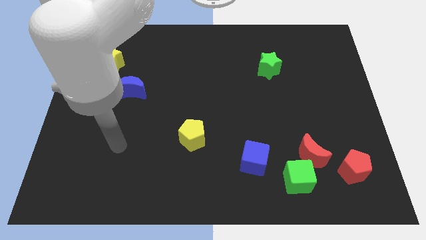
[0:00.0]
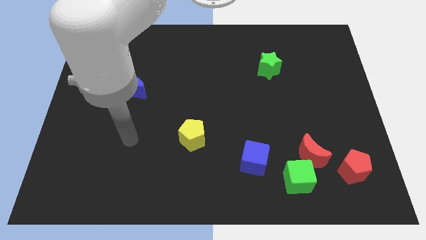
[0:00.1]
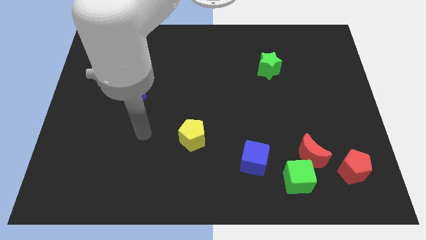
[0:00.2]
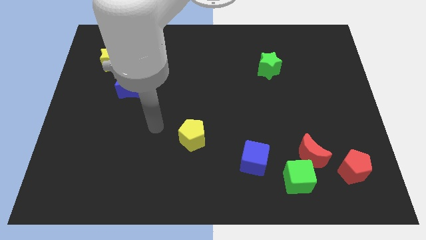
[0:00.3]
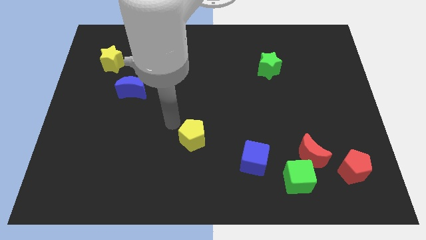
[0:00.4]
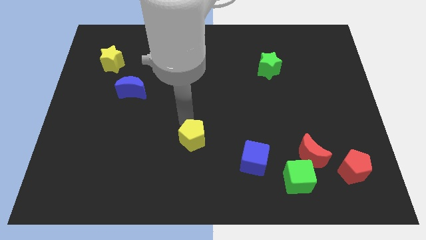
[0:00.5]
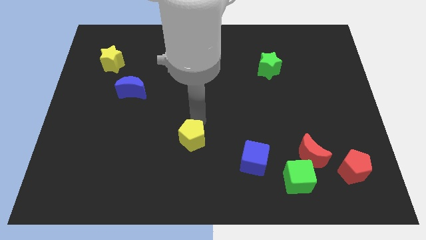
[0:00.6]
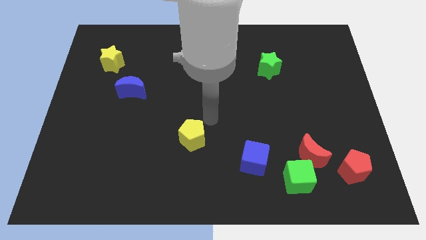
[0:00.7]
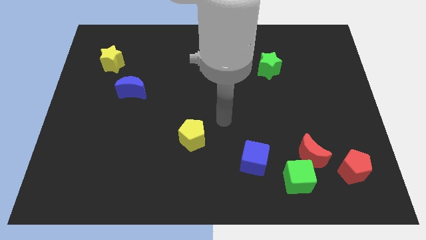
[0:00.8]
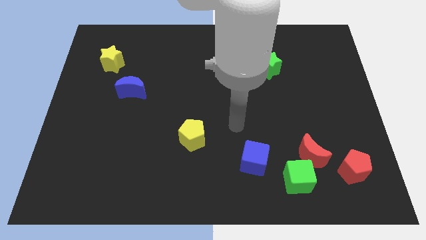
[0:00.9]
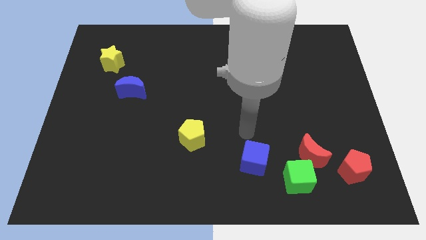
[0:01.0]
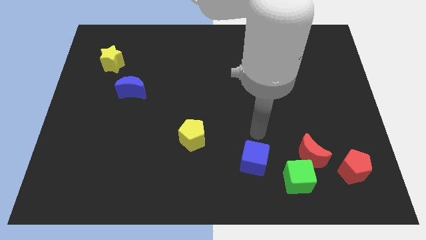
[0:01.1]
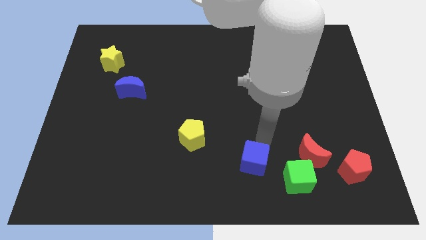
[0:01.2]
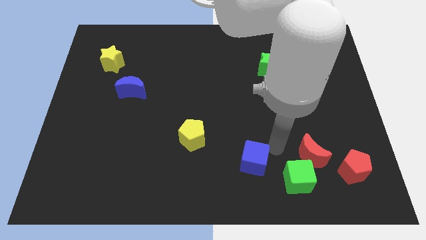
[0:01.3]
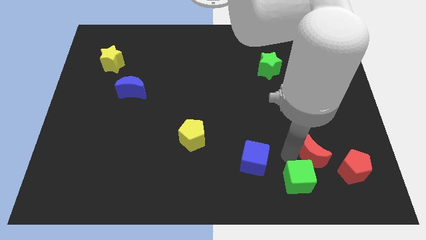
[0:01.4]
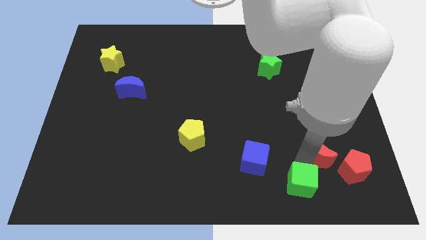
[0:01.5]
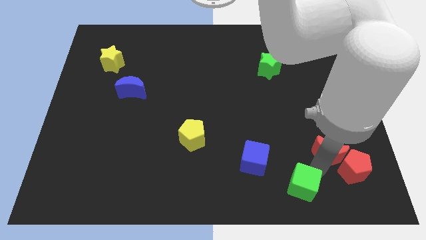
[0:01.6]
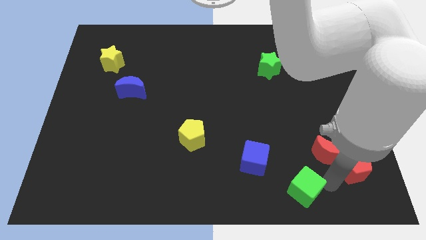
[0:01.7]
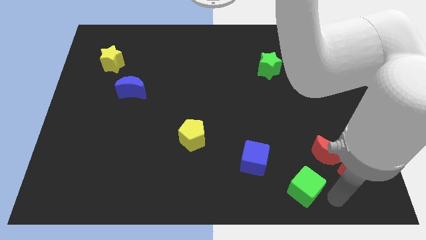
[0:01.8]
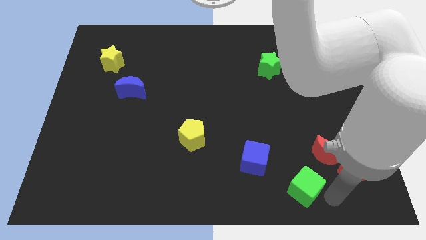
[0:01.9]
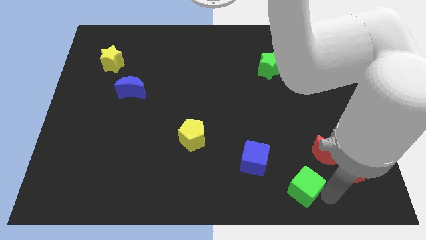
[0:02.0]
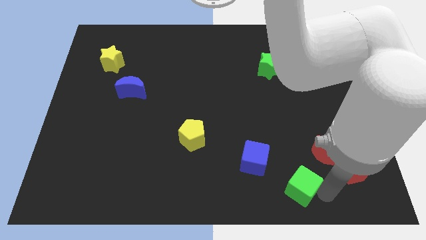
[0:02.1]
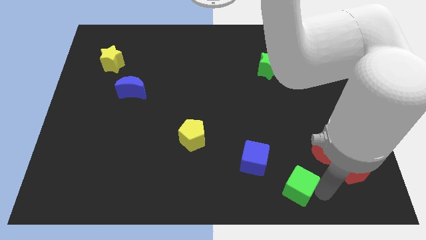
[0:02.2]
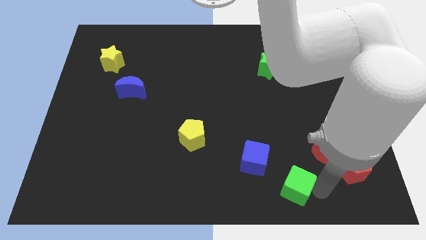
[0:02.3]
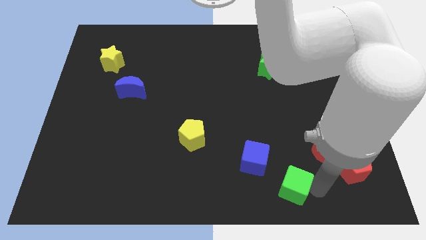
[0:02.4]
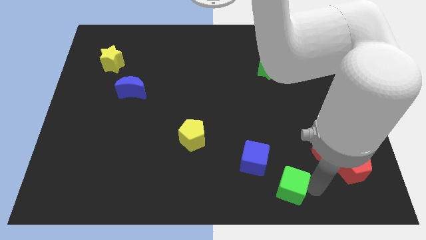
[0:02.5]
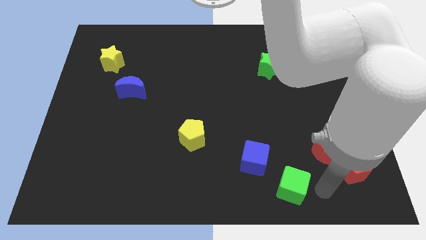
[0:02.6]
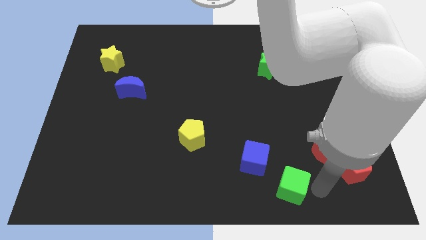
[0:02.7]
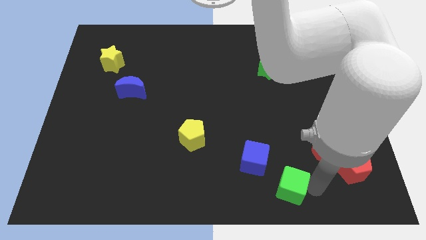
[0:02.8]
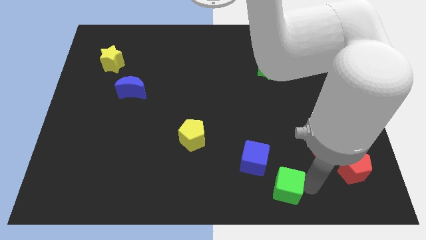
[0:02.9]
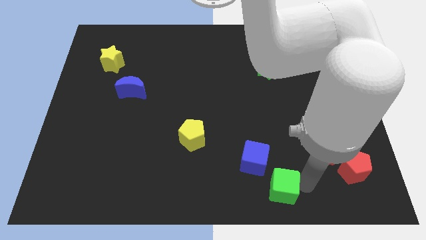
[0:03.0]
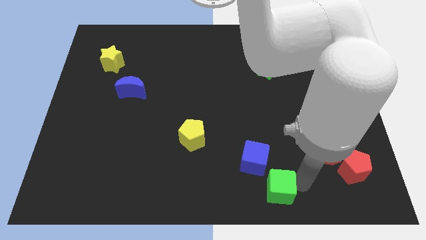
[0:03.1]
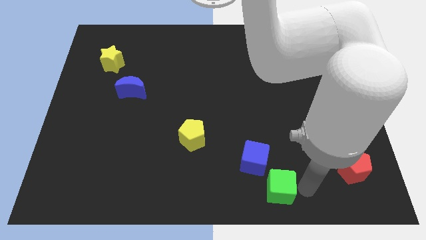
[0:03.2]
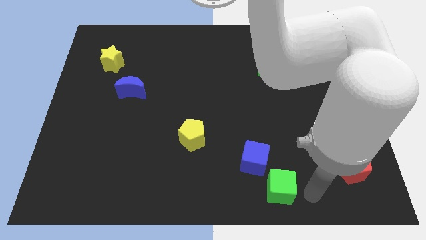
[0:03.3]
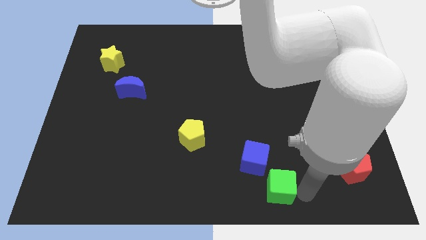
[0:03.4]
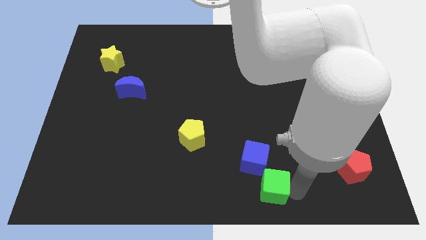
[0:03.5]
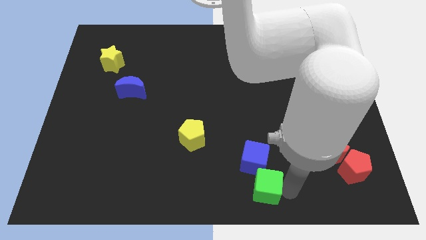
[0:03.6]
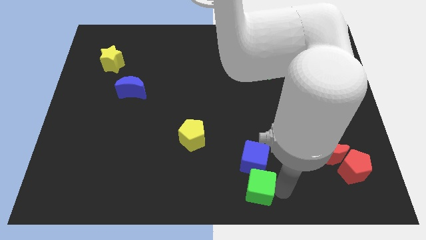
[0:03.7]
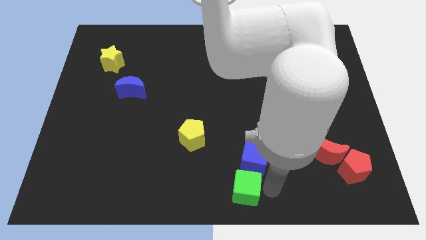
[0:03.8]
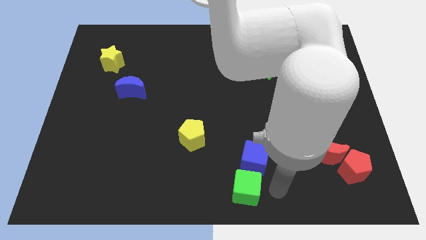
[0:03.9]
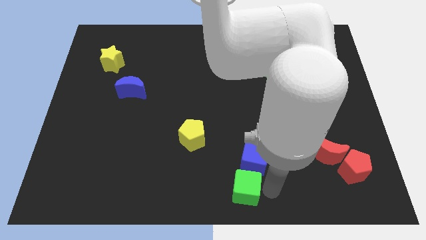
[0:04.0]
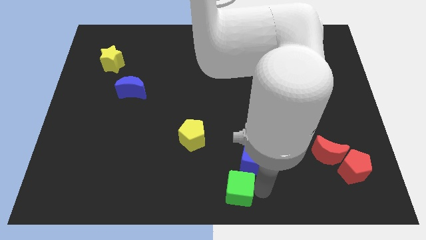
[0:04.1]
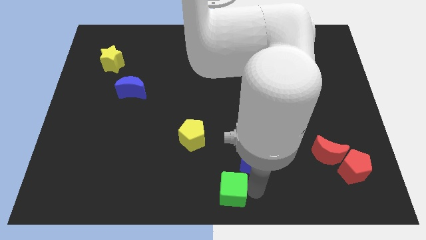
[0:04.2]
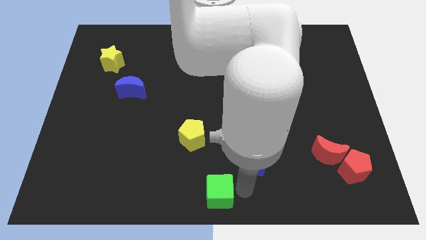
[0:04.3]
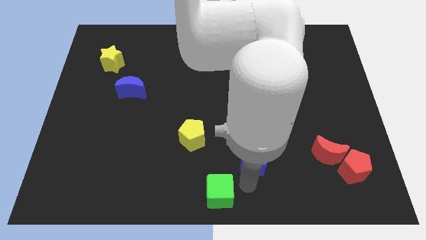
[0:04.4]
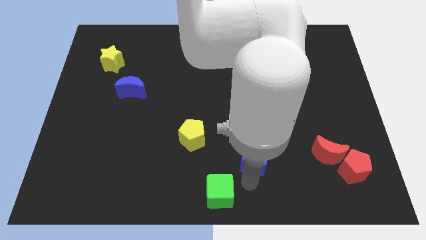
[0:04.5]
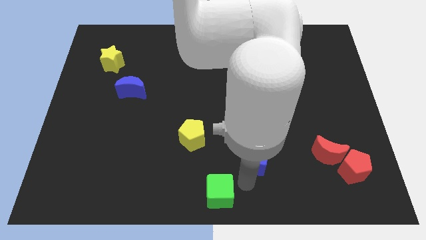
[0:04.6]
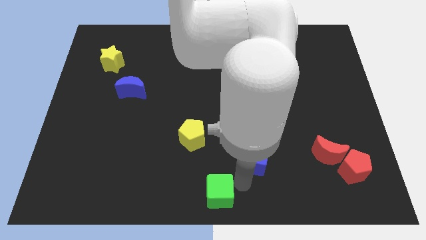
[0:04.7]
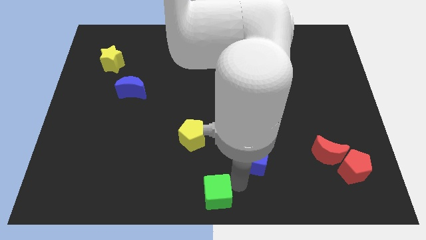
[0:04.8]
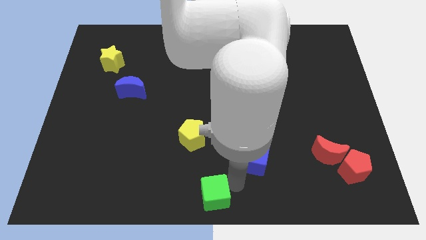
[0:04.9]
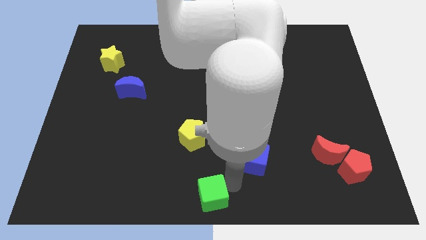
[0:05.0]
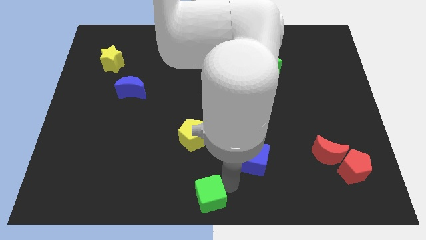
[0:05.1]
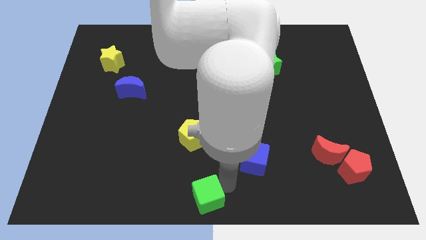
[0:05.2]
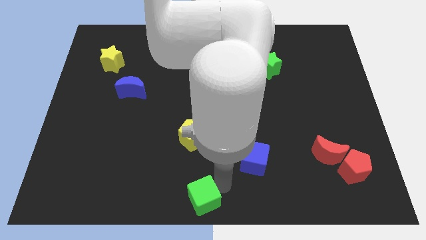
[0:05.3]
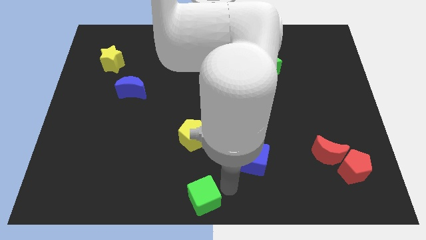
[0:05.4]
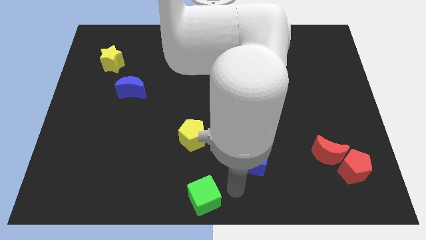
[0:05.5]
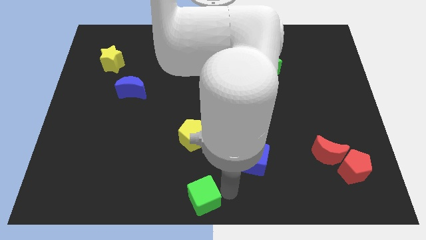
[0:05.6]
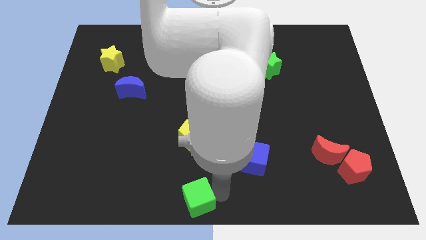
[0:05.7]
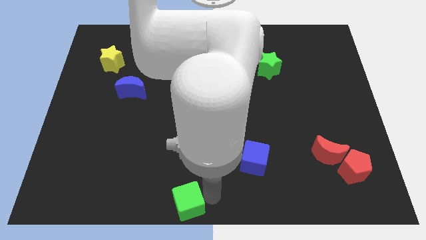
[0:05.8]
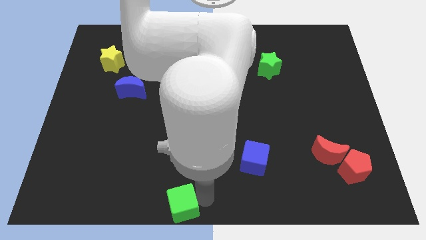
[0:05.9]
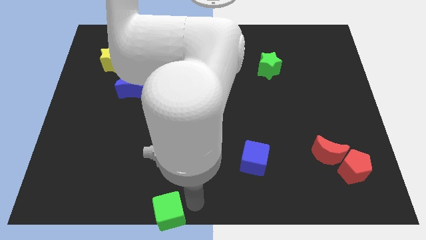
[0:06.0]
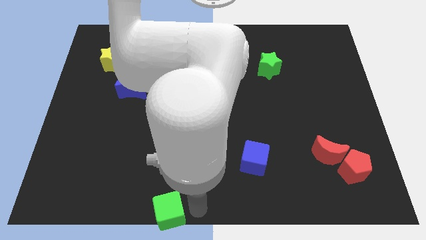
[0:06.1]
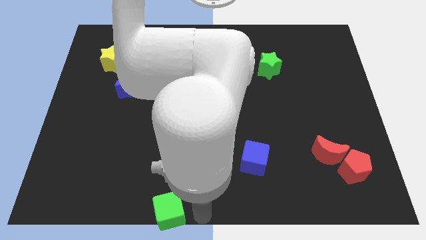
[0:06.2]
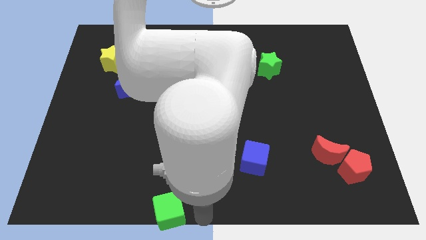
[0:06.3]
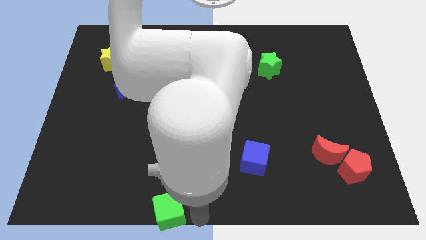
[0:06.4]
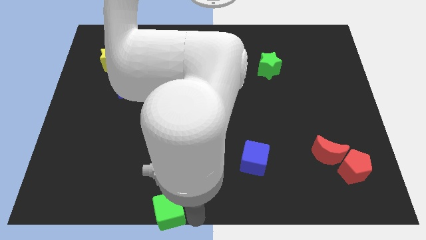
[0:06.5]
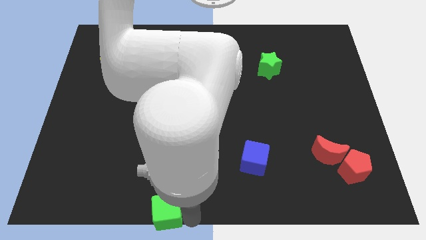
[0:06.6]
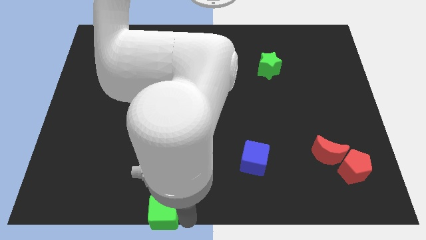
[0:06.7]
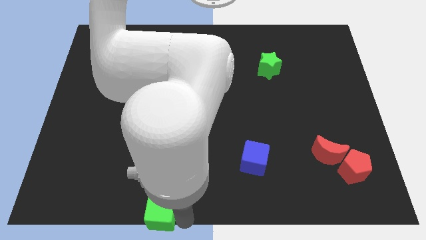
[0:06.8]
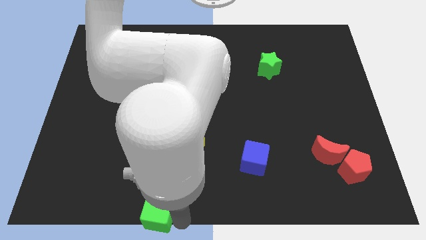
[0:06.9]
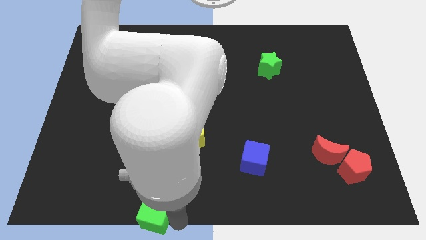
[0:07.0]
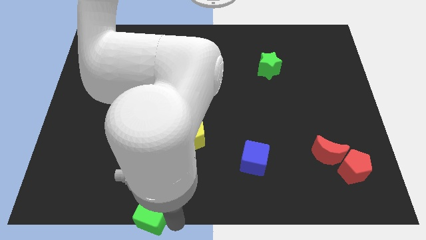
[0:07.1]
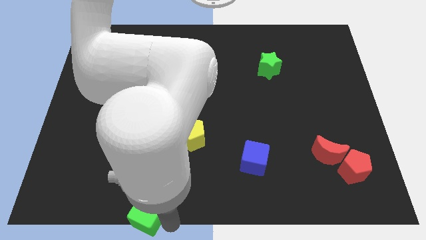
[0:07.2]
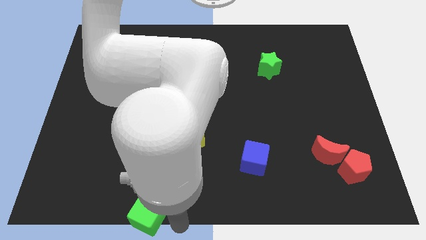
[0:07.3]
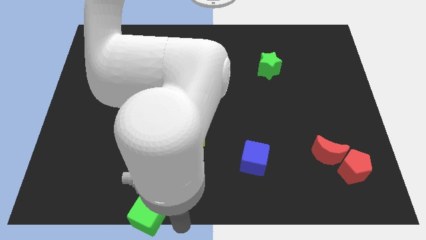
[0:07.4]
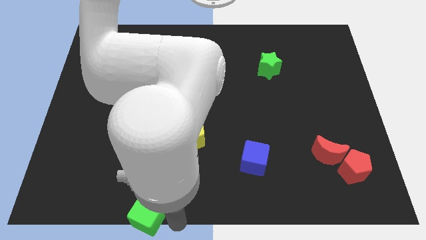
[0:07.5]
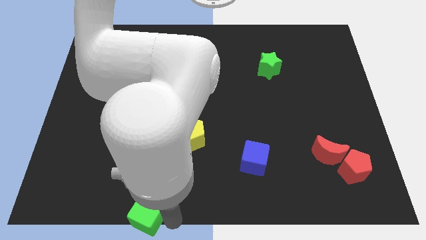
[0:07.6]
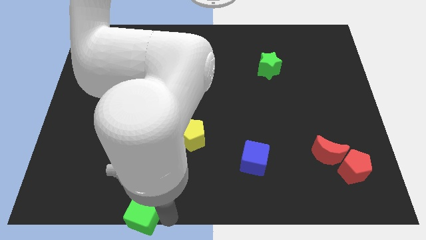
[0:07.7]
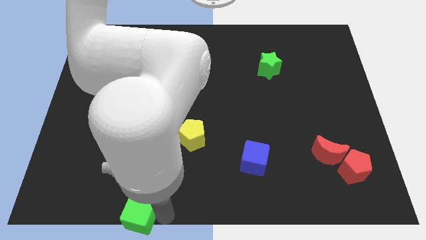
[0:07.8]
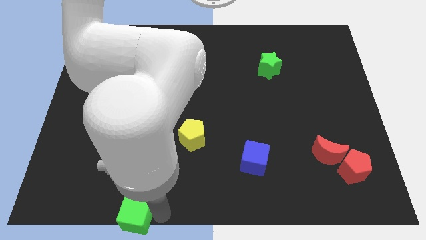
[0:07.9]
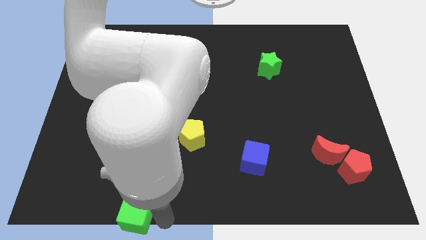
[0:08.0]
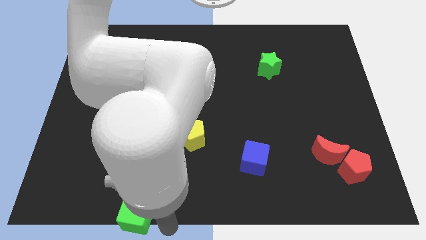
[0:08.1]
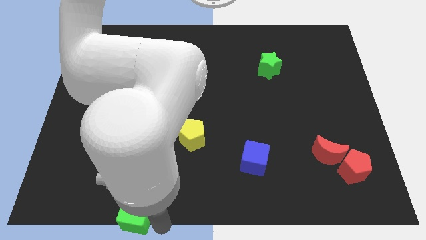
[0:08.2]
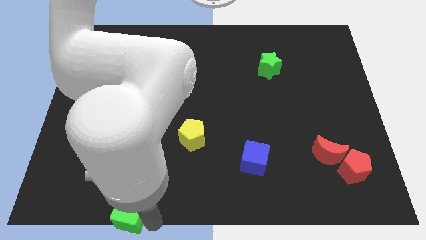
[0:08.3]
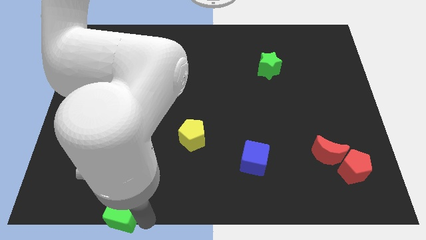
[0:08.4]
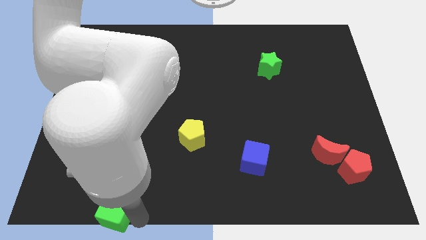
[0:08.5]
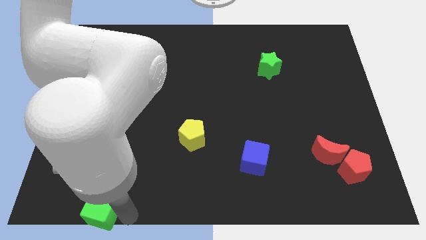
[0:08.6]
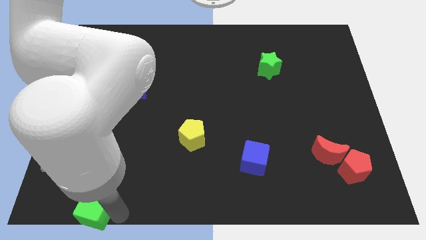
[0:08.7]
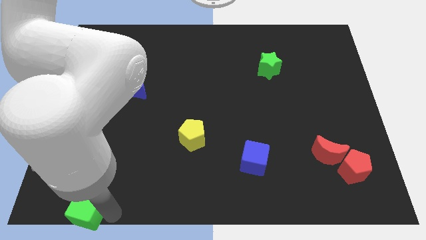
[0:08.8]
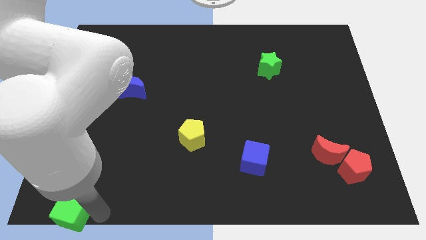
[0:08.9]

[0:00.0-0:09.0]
push the green cube to the bottom left corner
